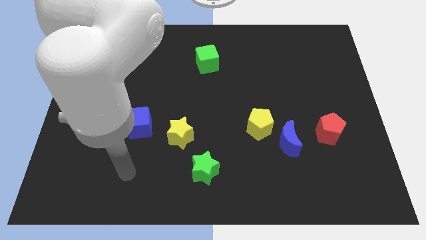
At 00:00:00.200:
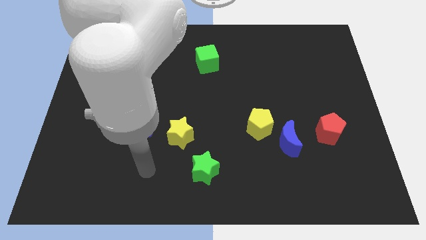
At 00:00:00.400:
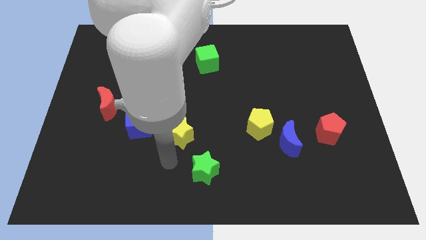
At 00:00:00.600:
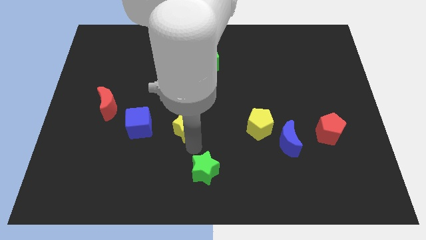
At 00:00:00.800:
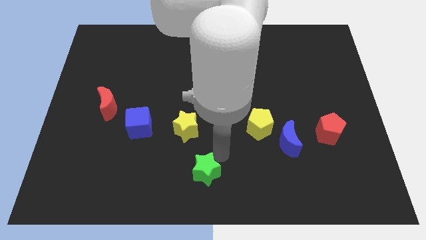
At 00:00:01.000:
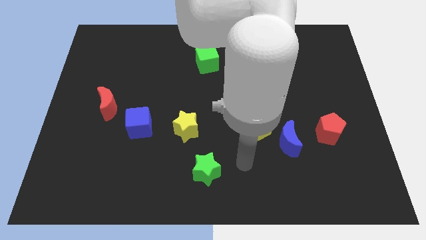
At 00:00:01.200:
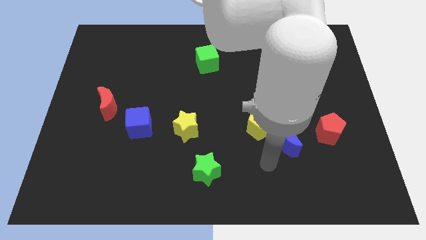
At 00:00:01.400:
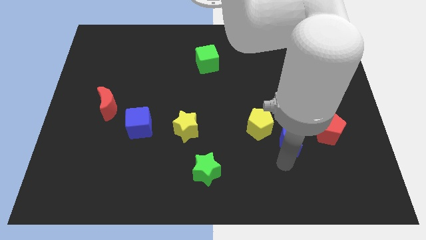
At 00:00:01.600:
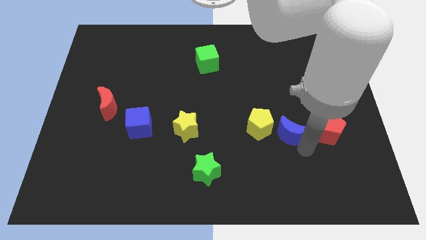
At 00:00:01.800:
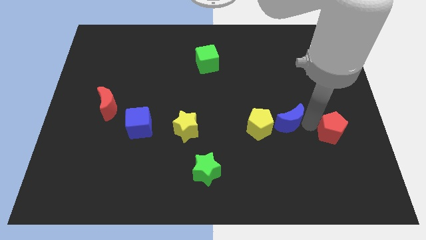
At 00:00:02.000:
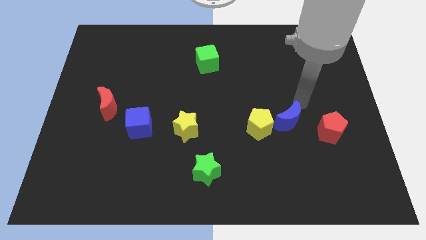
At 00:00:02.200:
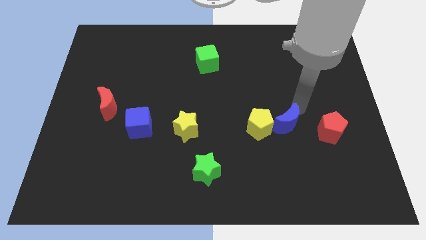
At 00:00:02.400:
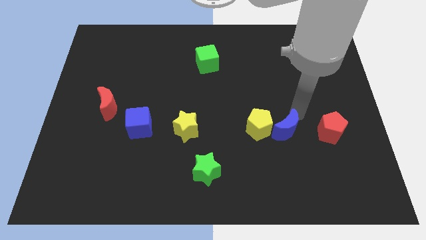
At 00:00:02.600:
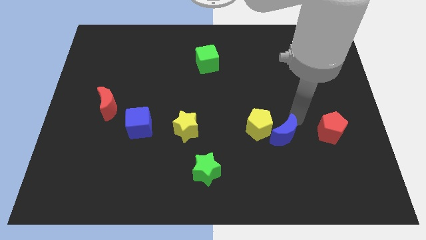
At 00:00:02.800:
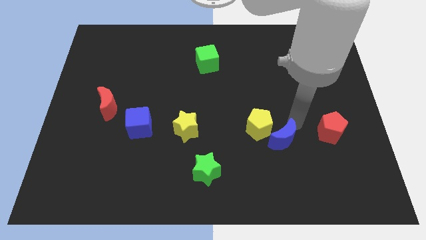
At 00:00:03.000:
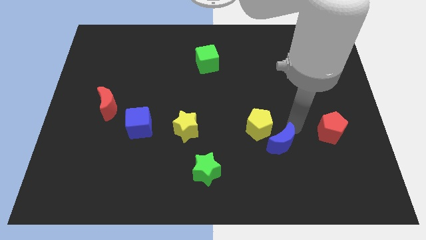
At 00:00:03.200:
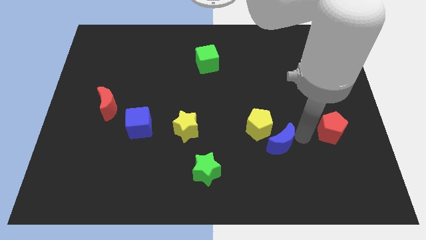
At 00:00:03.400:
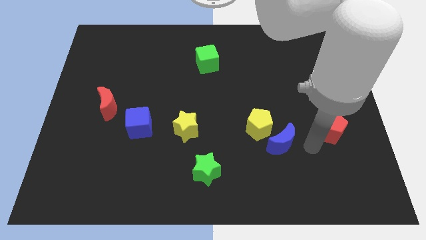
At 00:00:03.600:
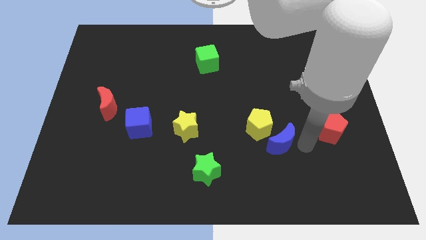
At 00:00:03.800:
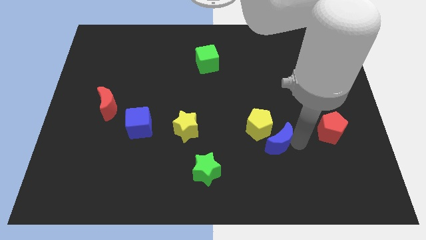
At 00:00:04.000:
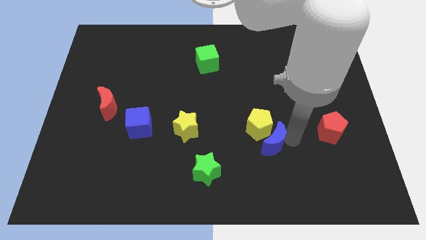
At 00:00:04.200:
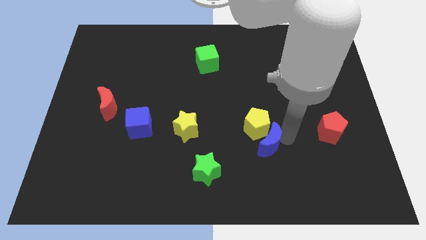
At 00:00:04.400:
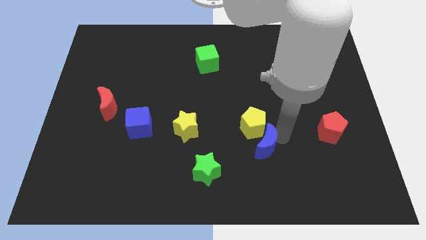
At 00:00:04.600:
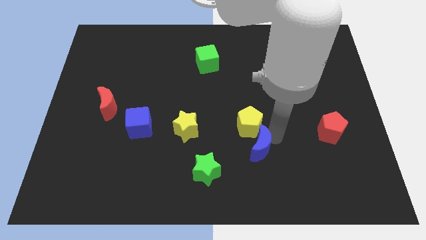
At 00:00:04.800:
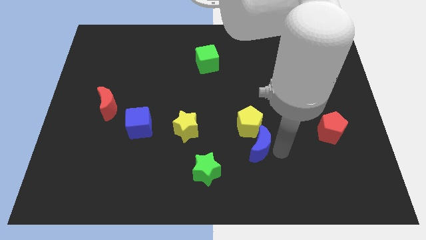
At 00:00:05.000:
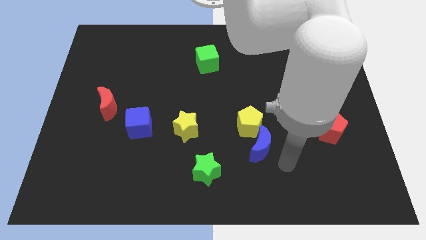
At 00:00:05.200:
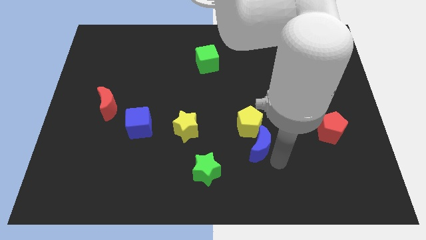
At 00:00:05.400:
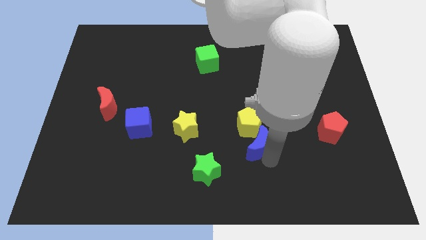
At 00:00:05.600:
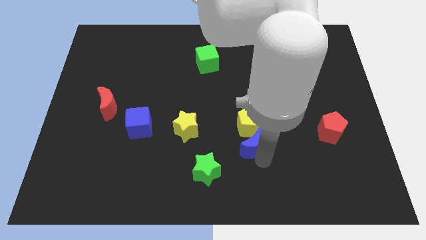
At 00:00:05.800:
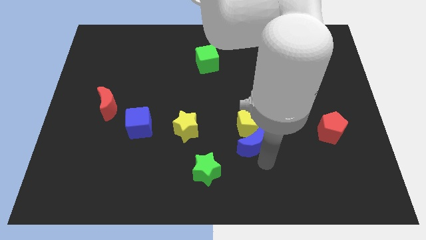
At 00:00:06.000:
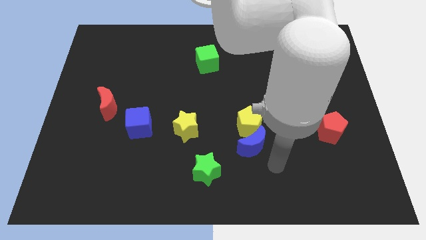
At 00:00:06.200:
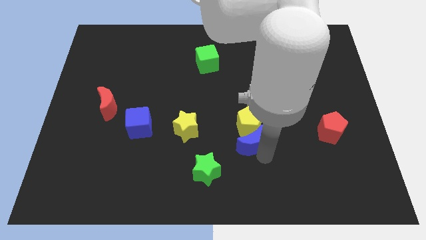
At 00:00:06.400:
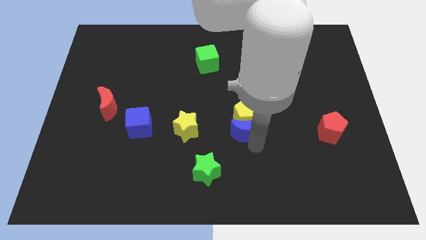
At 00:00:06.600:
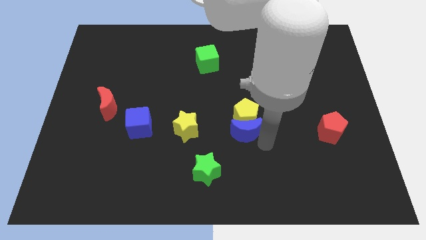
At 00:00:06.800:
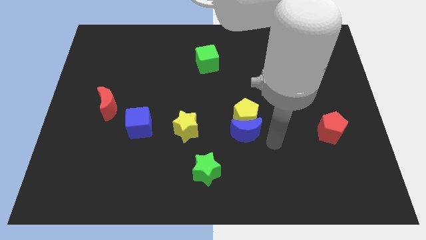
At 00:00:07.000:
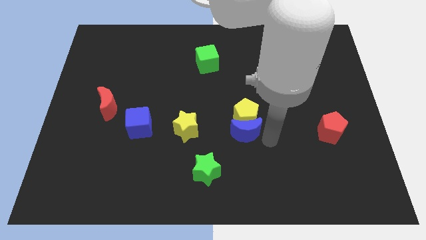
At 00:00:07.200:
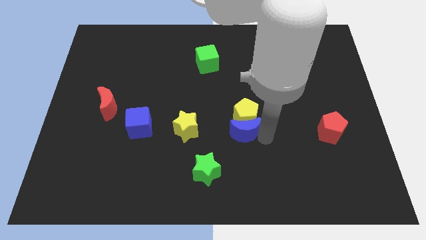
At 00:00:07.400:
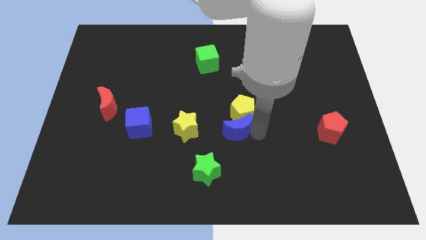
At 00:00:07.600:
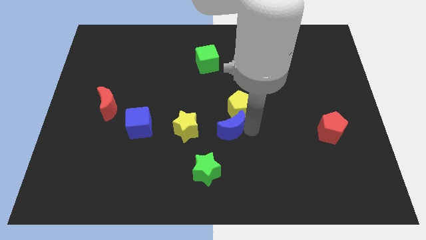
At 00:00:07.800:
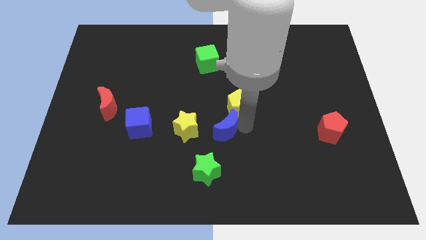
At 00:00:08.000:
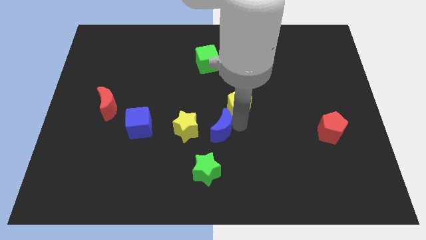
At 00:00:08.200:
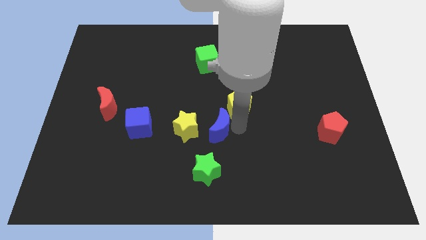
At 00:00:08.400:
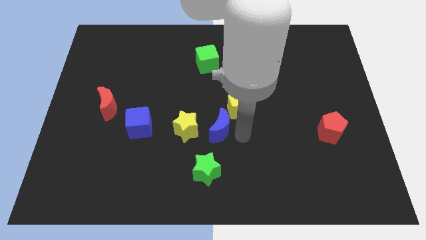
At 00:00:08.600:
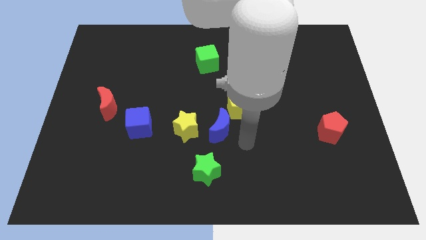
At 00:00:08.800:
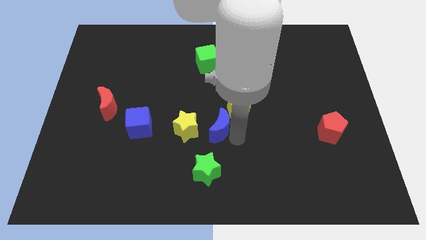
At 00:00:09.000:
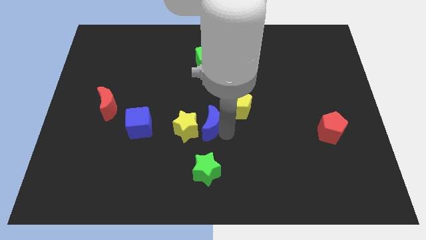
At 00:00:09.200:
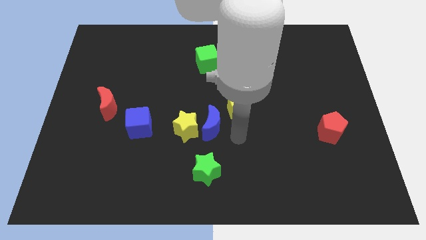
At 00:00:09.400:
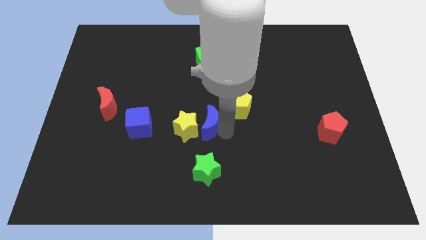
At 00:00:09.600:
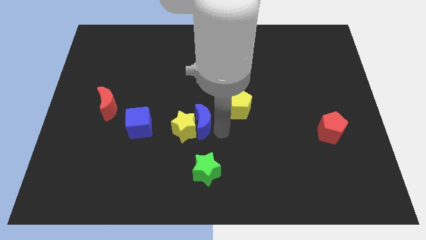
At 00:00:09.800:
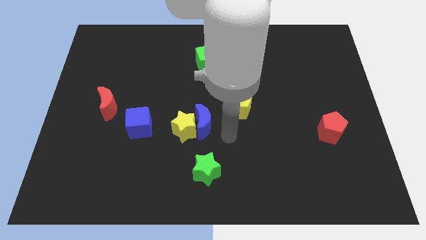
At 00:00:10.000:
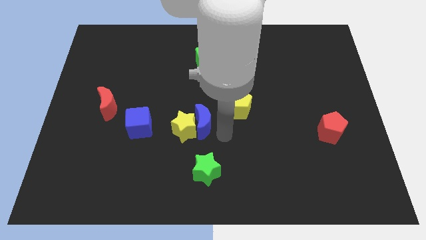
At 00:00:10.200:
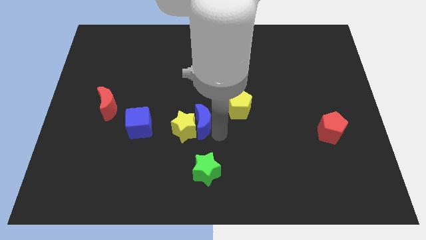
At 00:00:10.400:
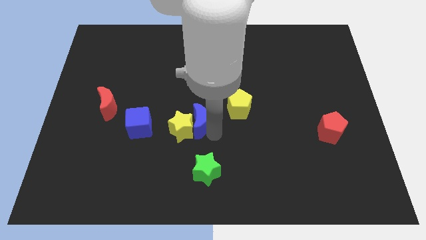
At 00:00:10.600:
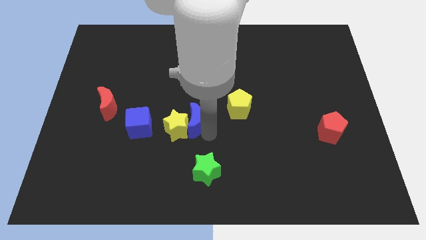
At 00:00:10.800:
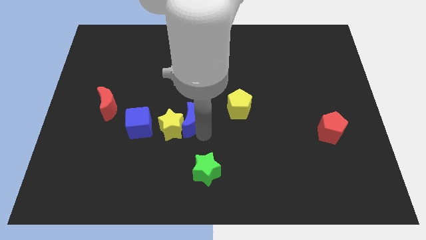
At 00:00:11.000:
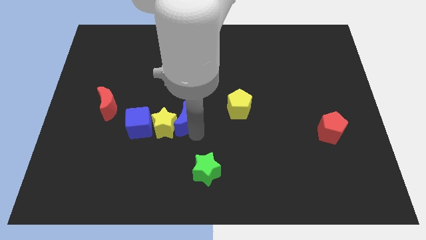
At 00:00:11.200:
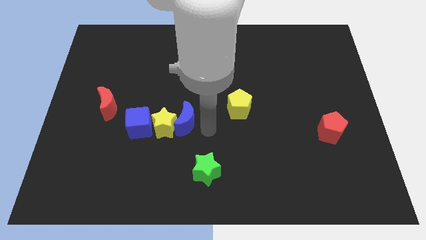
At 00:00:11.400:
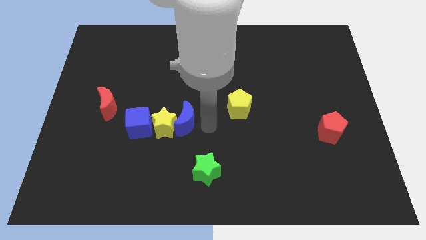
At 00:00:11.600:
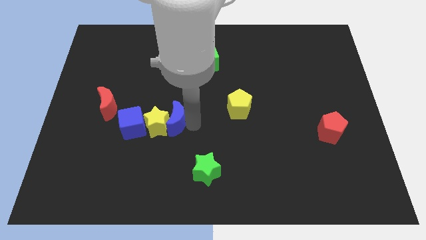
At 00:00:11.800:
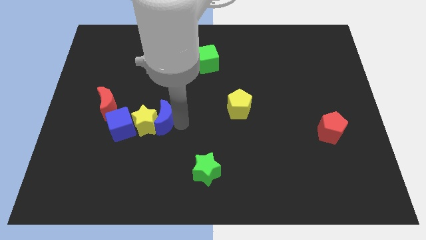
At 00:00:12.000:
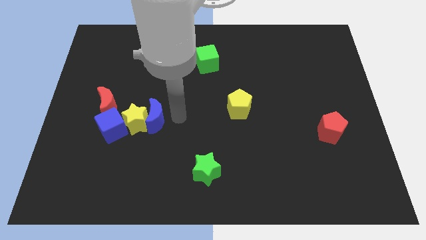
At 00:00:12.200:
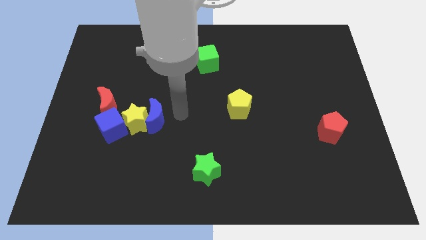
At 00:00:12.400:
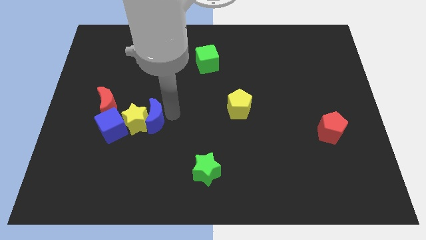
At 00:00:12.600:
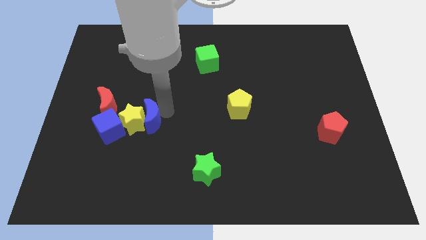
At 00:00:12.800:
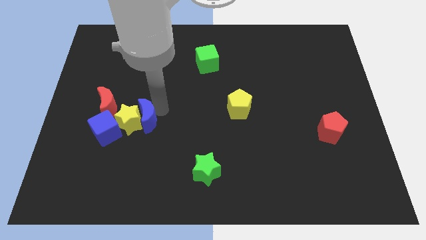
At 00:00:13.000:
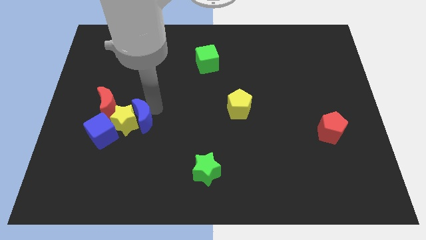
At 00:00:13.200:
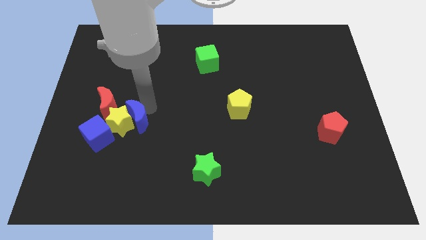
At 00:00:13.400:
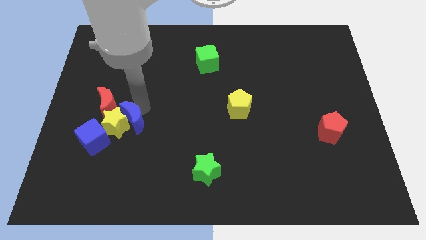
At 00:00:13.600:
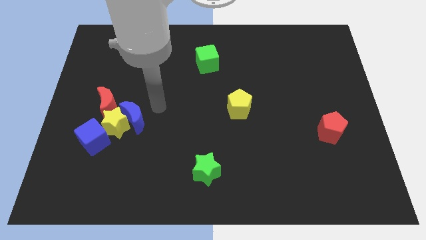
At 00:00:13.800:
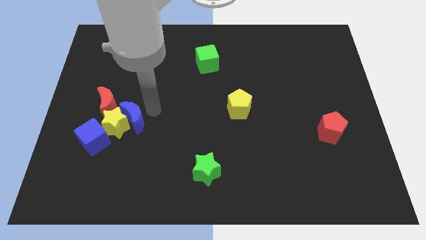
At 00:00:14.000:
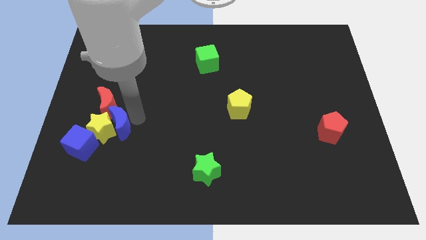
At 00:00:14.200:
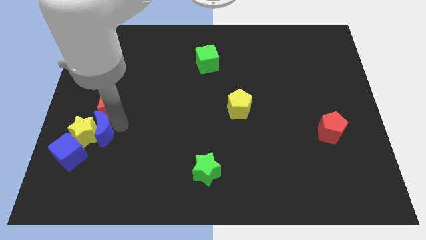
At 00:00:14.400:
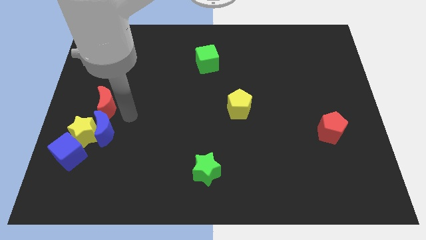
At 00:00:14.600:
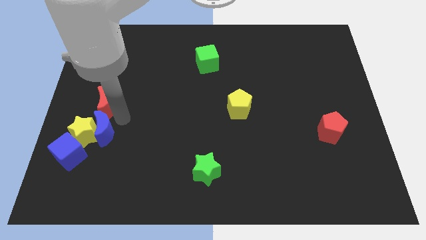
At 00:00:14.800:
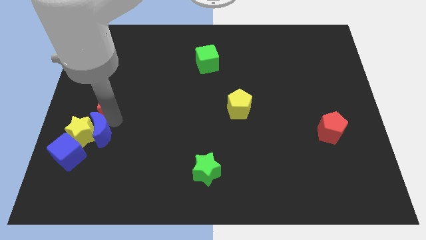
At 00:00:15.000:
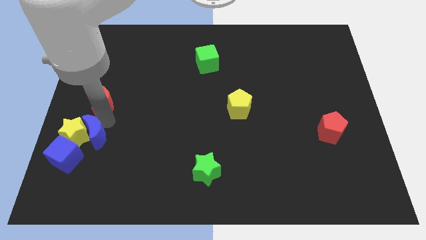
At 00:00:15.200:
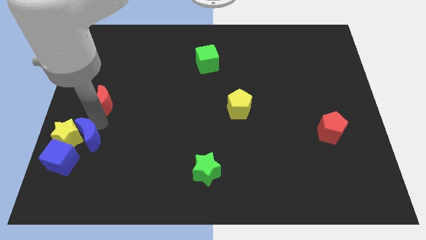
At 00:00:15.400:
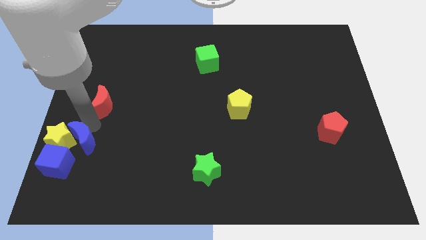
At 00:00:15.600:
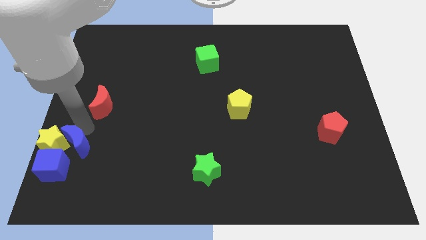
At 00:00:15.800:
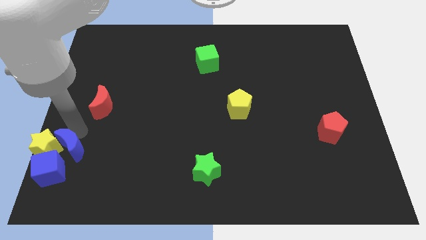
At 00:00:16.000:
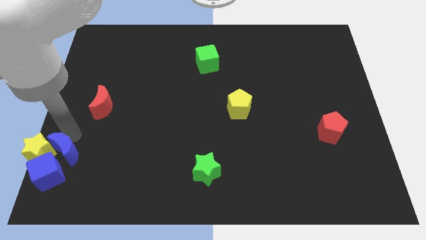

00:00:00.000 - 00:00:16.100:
push the blue moon close to the blue cube
